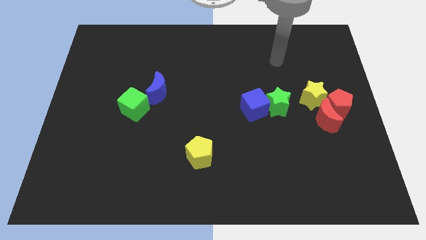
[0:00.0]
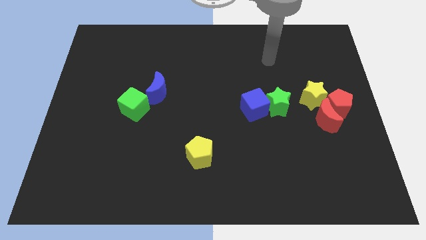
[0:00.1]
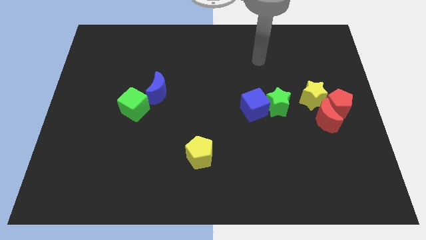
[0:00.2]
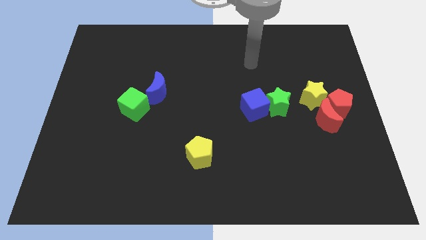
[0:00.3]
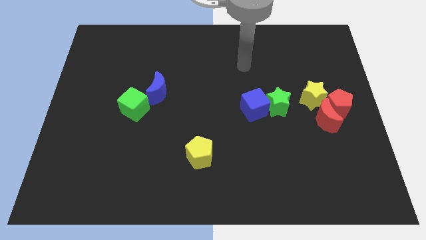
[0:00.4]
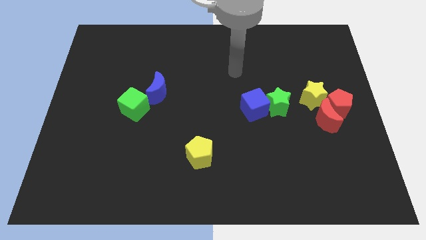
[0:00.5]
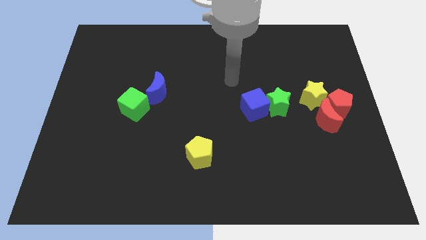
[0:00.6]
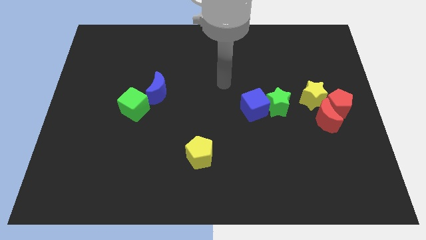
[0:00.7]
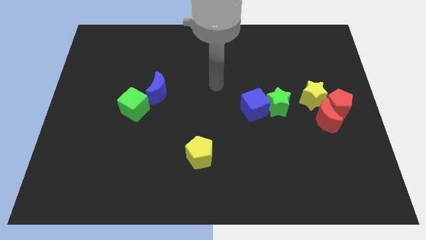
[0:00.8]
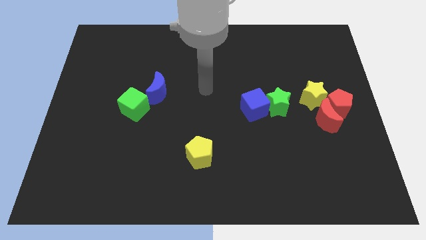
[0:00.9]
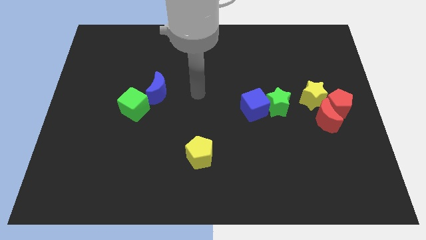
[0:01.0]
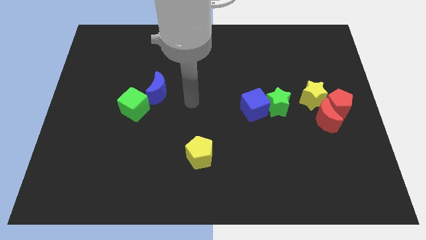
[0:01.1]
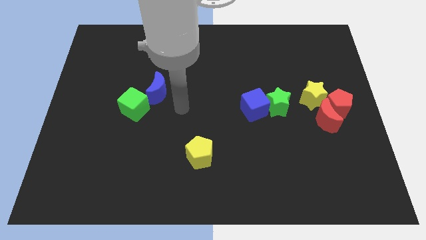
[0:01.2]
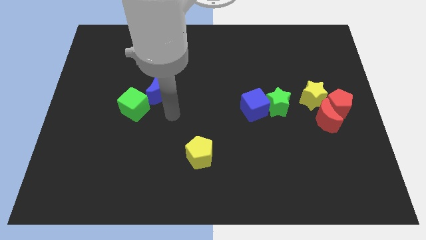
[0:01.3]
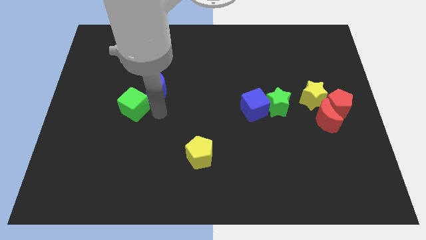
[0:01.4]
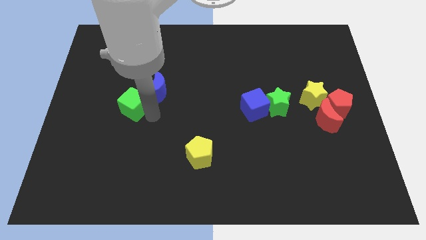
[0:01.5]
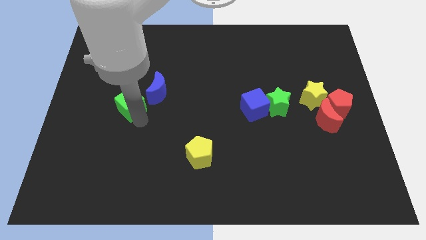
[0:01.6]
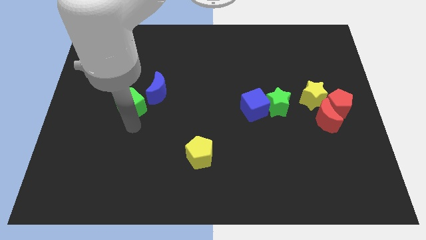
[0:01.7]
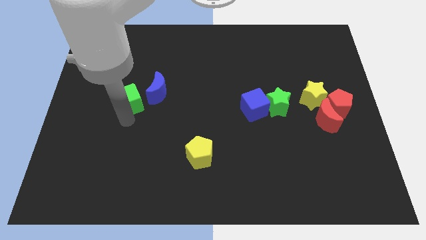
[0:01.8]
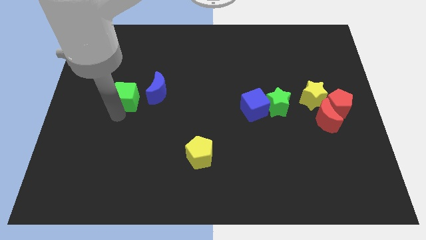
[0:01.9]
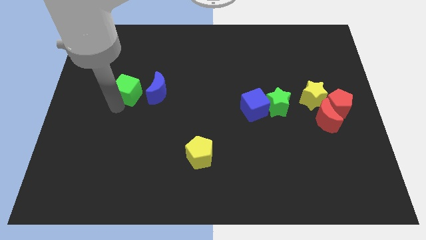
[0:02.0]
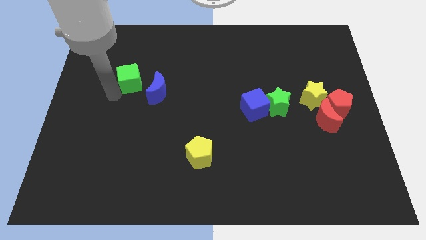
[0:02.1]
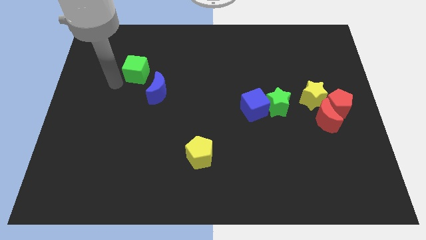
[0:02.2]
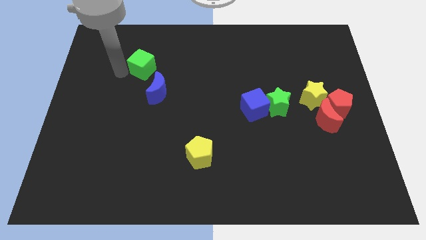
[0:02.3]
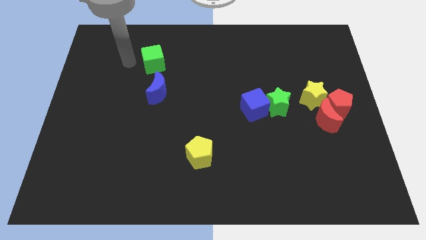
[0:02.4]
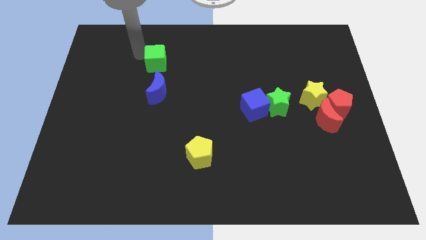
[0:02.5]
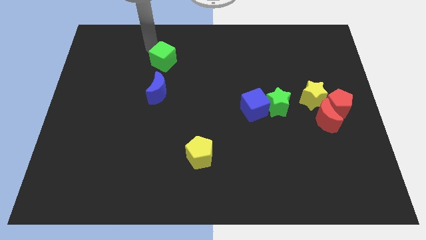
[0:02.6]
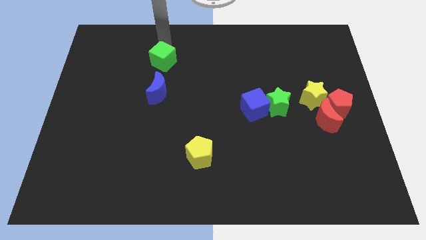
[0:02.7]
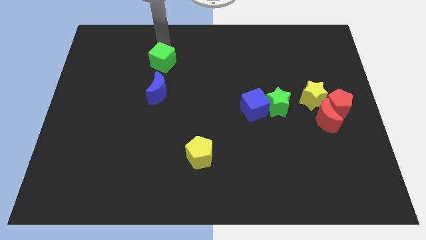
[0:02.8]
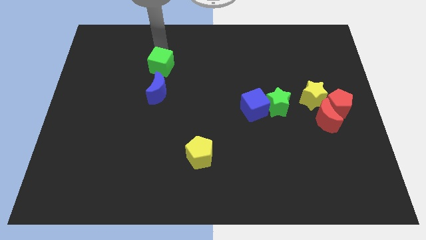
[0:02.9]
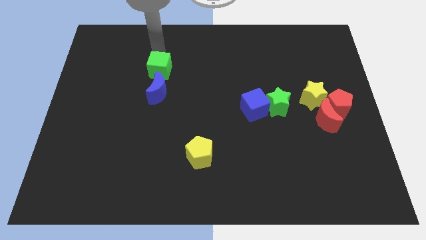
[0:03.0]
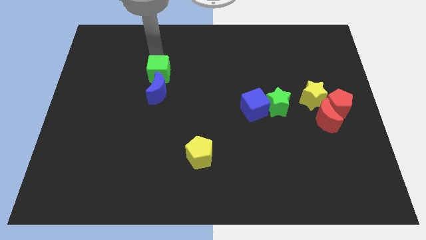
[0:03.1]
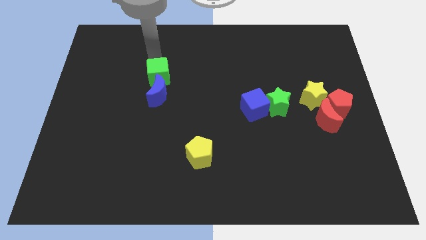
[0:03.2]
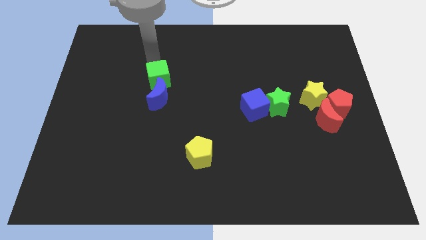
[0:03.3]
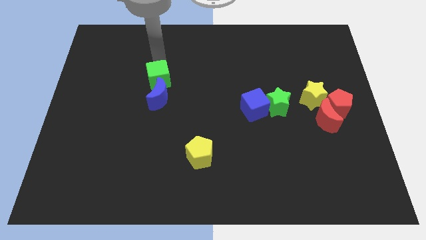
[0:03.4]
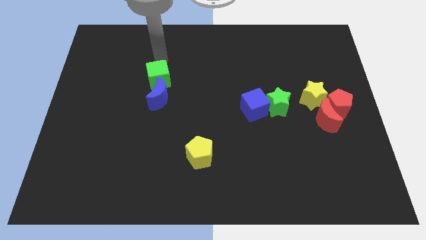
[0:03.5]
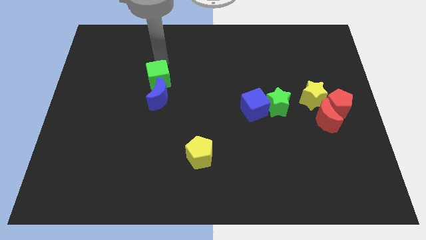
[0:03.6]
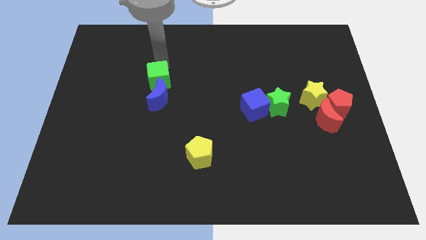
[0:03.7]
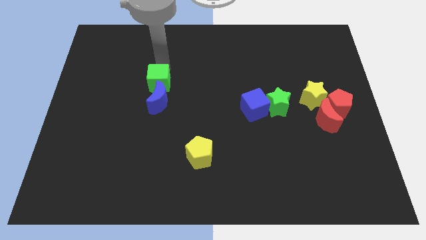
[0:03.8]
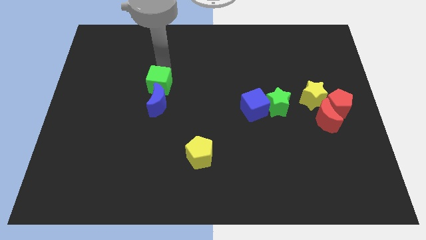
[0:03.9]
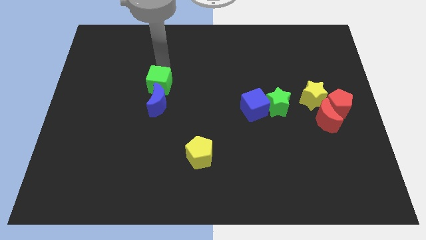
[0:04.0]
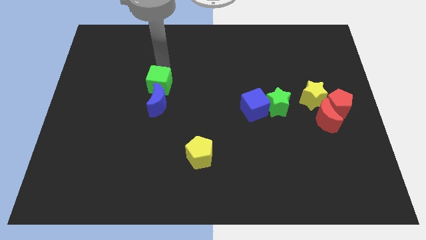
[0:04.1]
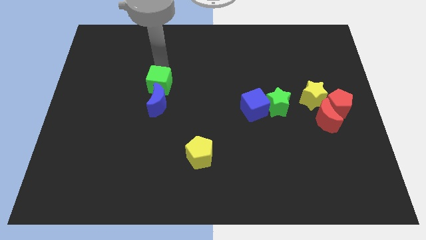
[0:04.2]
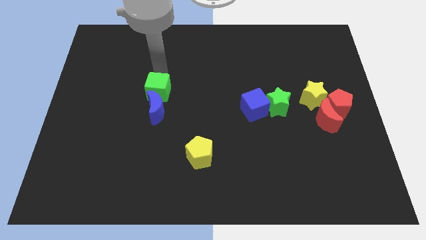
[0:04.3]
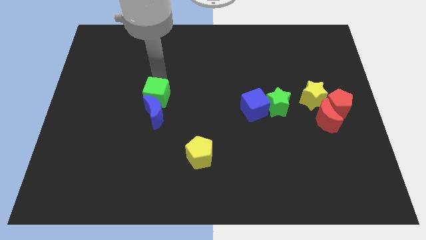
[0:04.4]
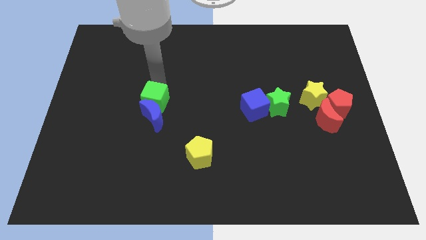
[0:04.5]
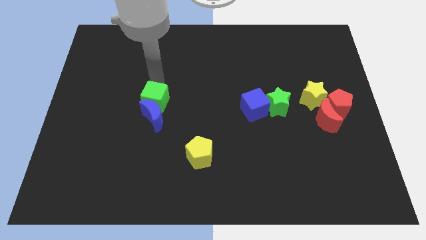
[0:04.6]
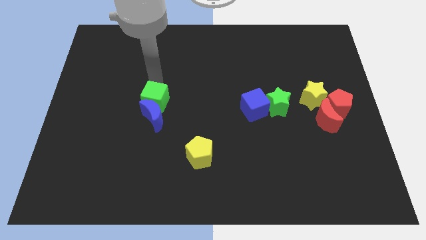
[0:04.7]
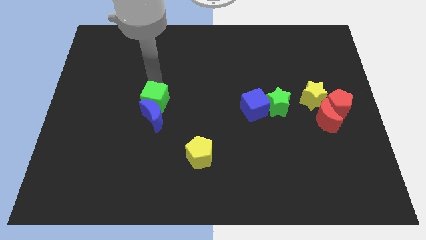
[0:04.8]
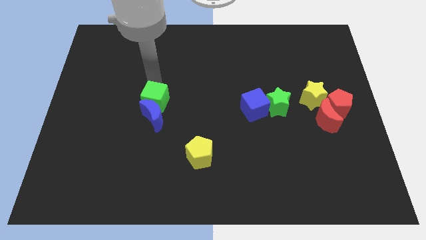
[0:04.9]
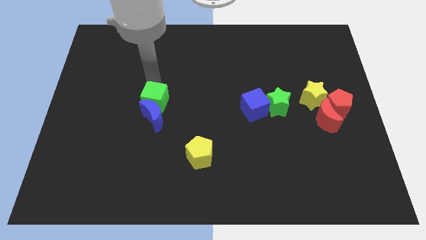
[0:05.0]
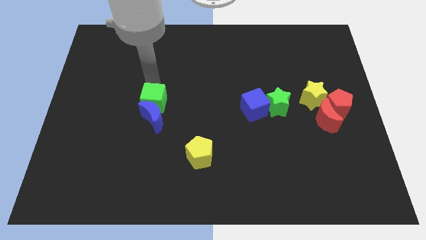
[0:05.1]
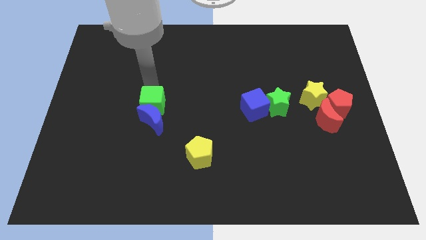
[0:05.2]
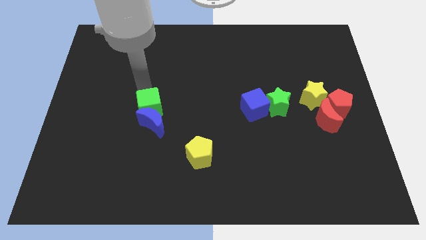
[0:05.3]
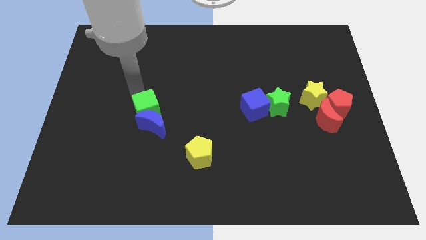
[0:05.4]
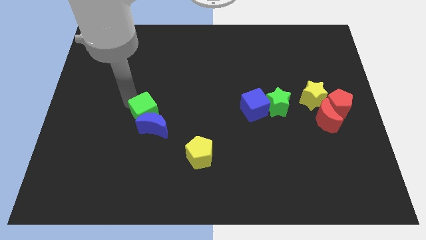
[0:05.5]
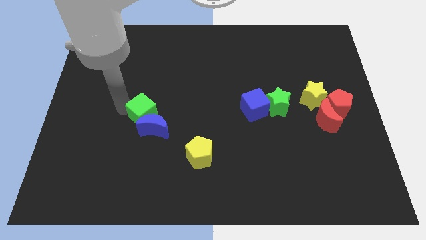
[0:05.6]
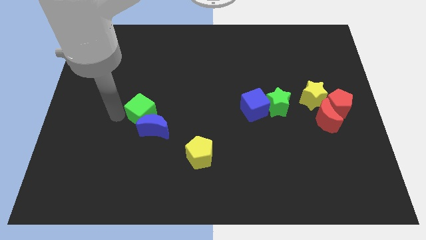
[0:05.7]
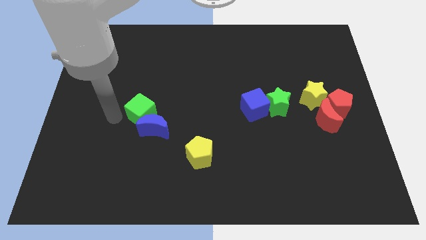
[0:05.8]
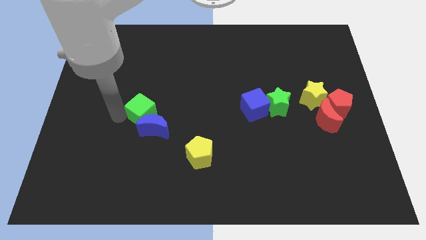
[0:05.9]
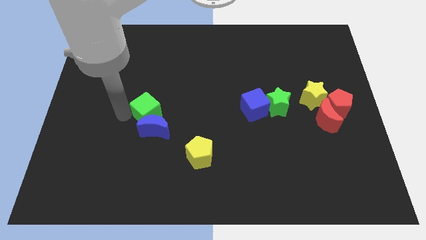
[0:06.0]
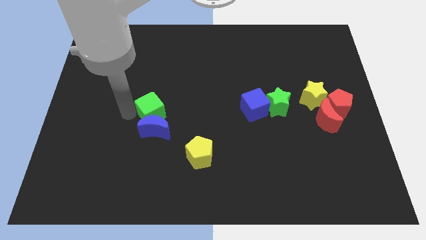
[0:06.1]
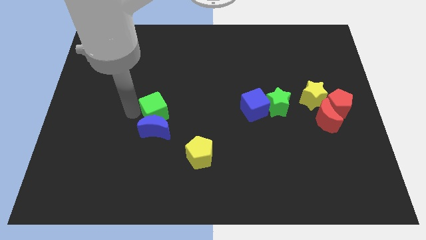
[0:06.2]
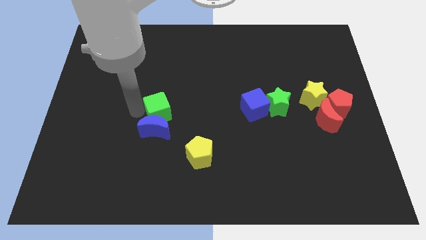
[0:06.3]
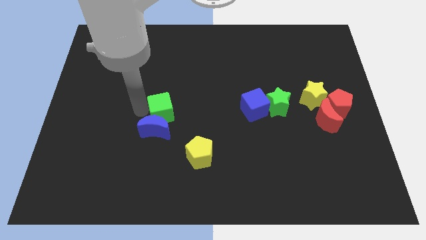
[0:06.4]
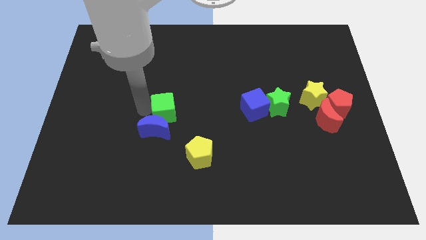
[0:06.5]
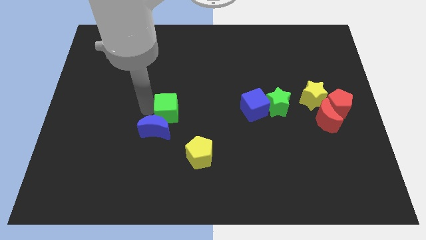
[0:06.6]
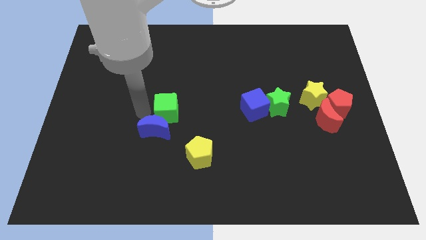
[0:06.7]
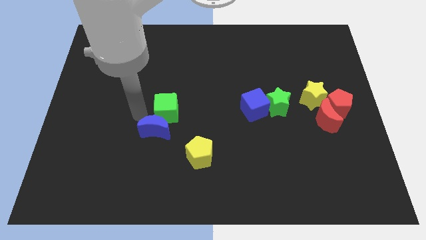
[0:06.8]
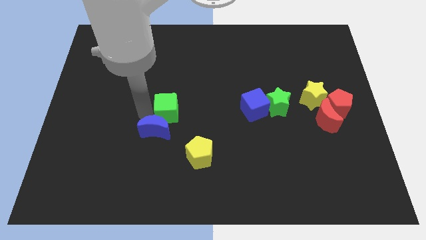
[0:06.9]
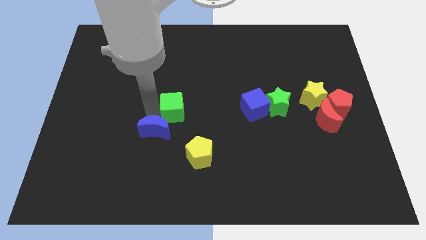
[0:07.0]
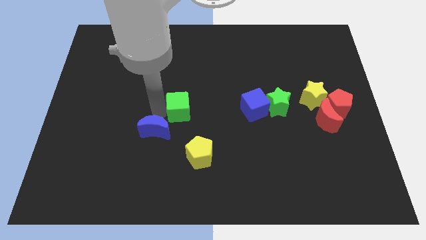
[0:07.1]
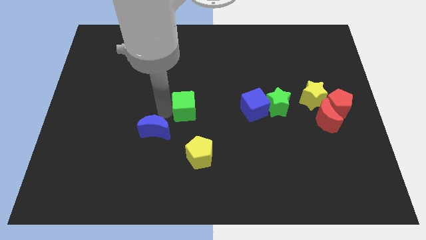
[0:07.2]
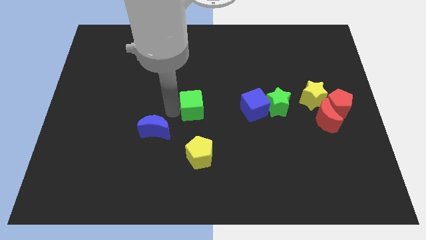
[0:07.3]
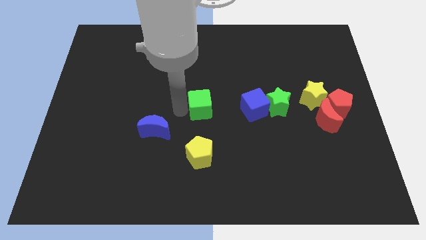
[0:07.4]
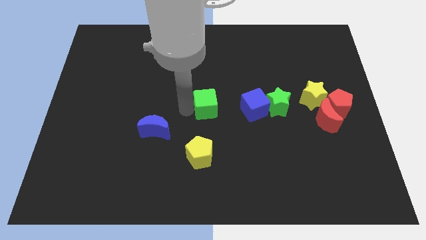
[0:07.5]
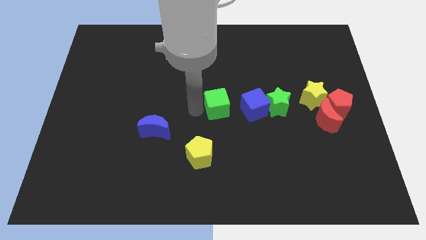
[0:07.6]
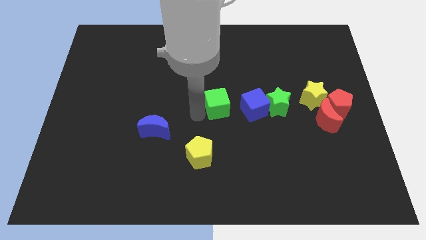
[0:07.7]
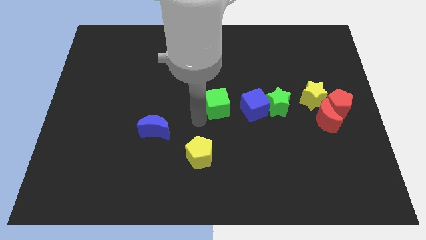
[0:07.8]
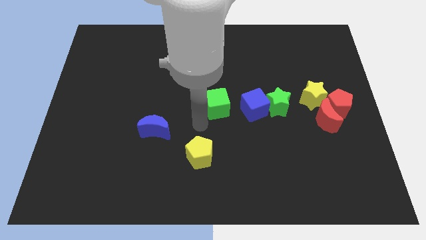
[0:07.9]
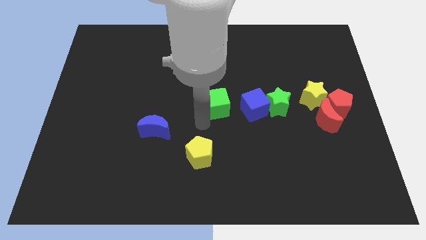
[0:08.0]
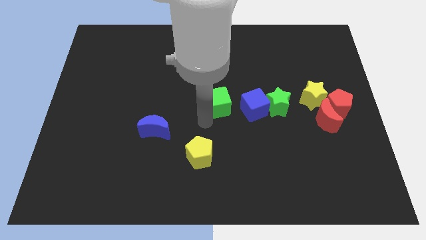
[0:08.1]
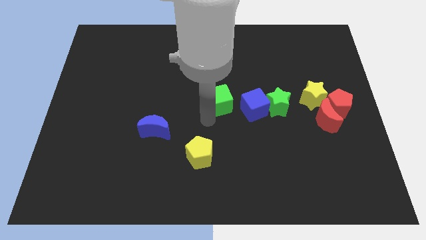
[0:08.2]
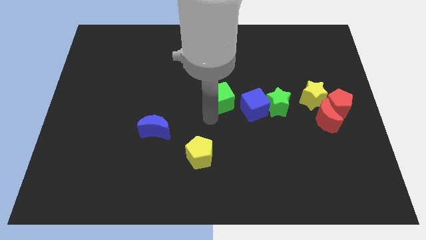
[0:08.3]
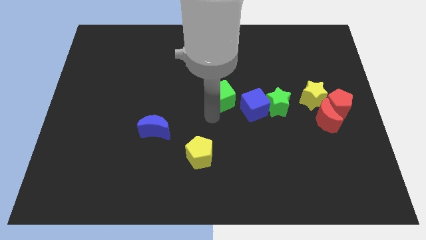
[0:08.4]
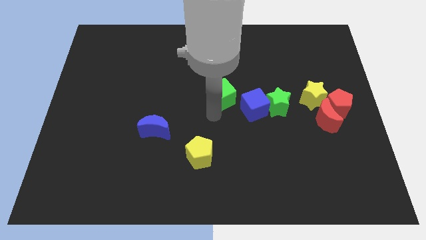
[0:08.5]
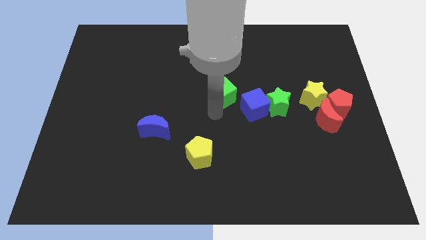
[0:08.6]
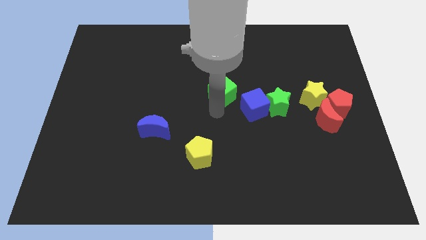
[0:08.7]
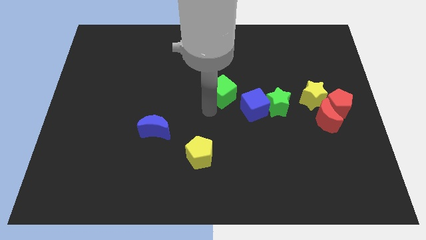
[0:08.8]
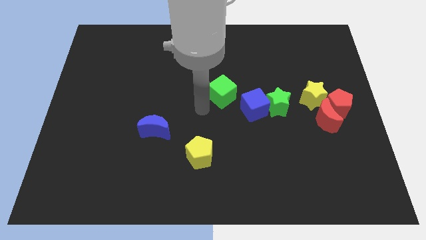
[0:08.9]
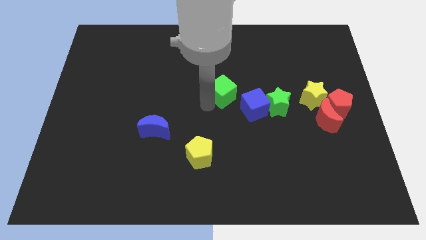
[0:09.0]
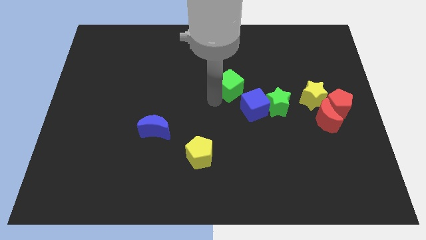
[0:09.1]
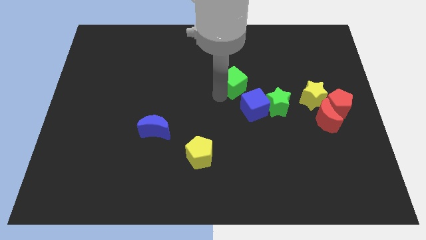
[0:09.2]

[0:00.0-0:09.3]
slide the green cube above the blue cube
